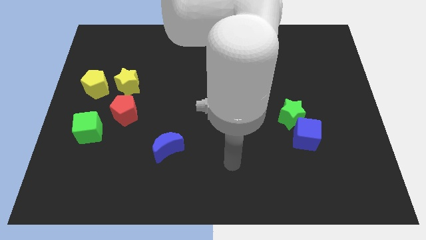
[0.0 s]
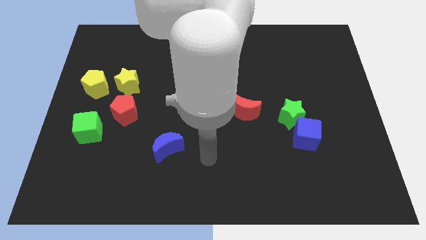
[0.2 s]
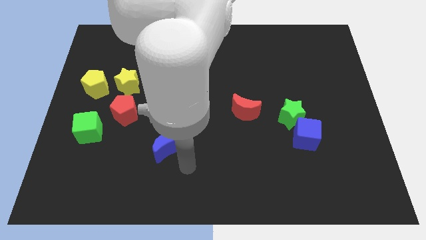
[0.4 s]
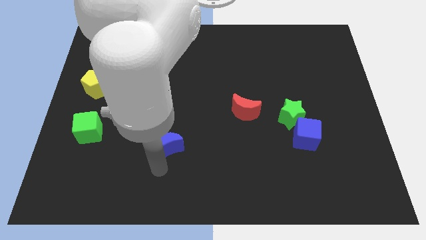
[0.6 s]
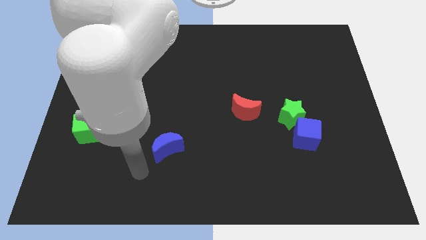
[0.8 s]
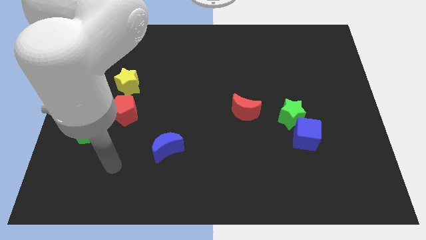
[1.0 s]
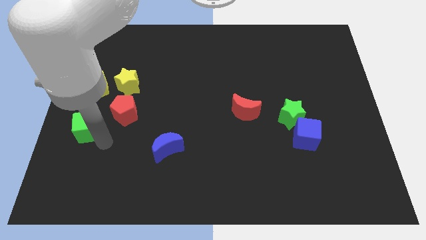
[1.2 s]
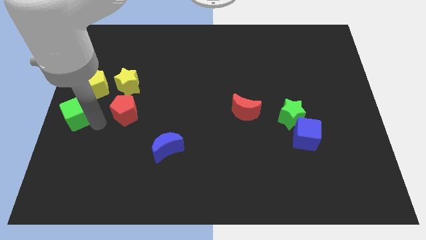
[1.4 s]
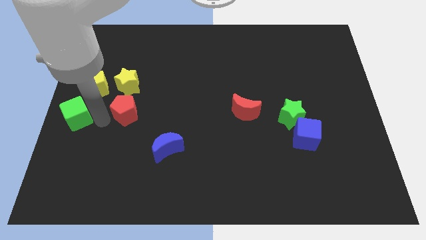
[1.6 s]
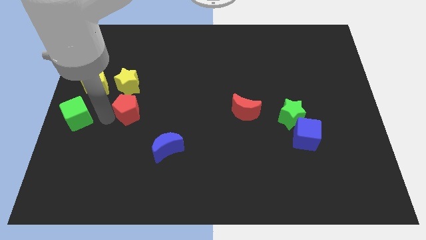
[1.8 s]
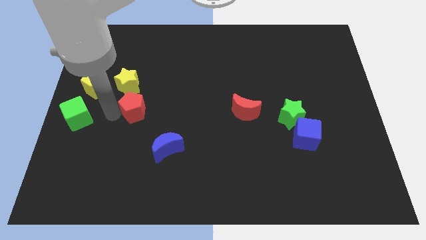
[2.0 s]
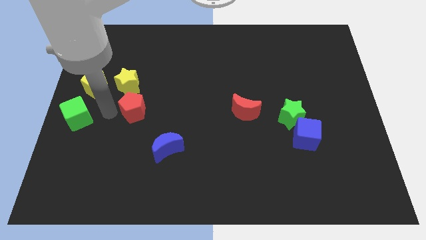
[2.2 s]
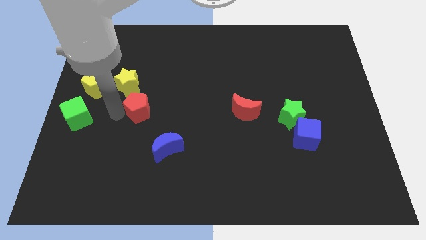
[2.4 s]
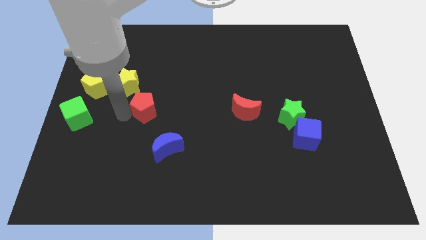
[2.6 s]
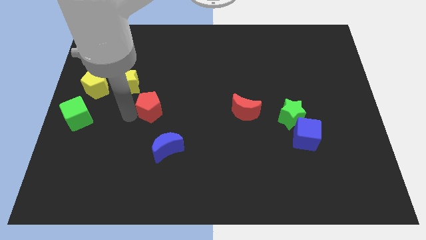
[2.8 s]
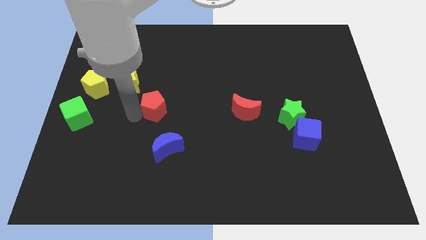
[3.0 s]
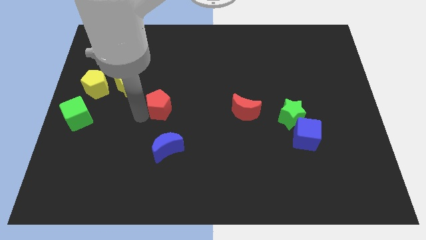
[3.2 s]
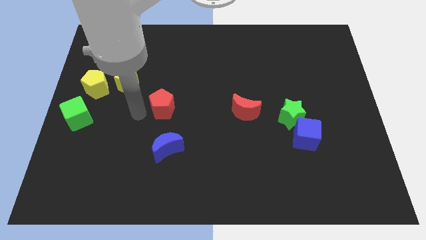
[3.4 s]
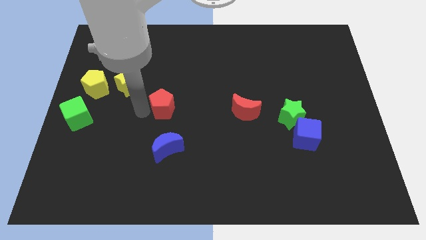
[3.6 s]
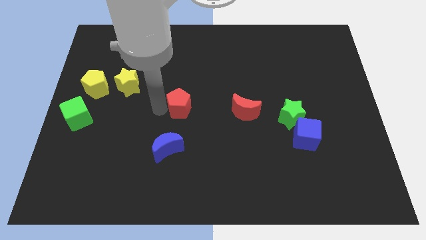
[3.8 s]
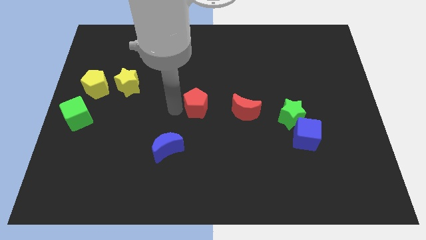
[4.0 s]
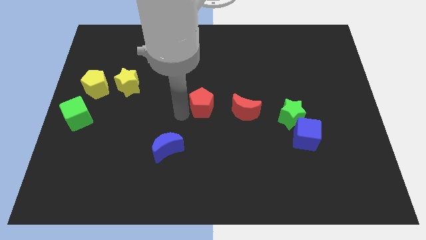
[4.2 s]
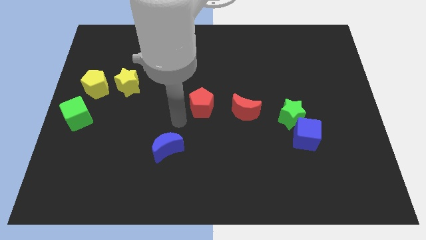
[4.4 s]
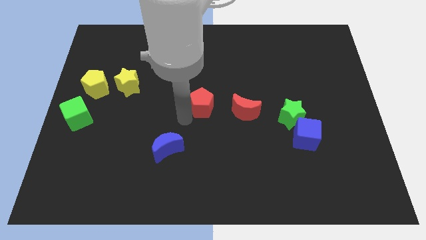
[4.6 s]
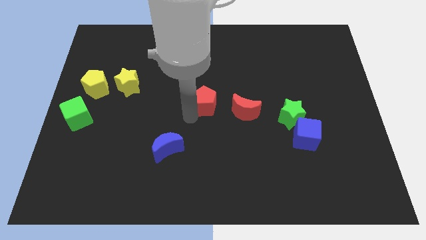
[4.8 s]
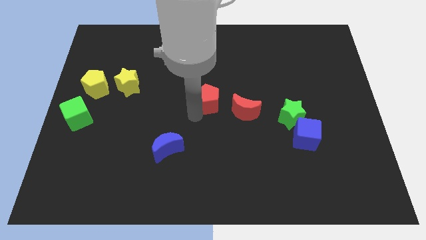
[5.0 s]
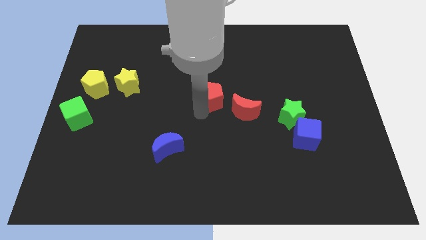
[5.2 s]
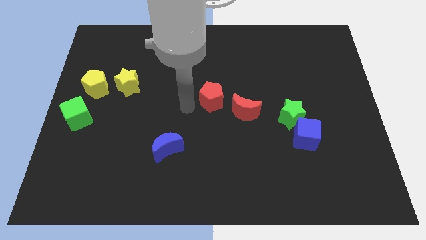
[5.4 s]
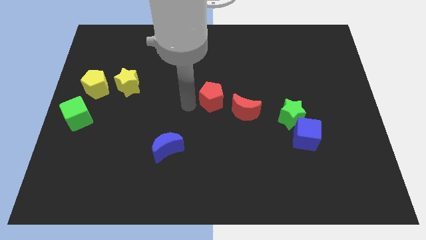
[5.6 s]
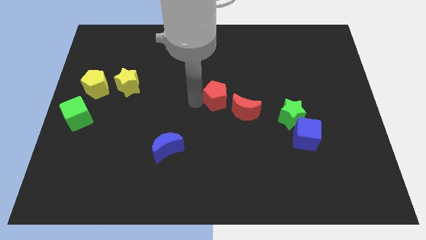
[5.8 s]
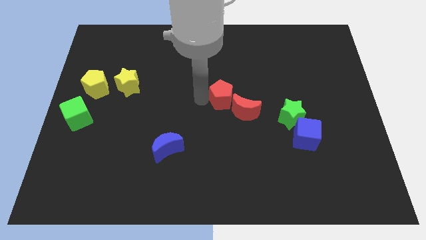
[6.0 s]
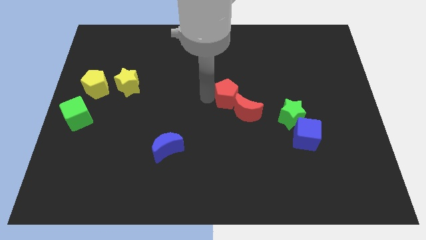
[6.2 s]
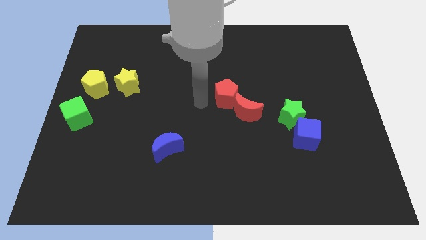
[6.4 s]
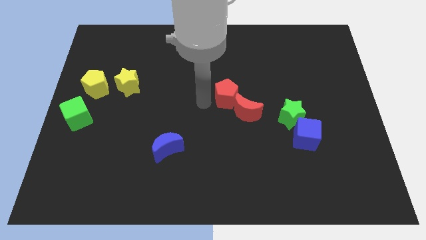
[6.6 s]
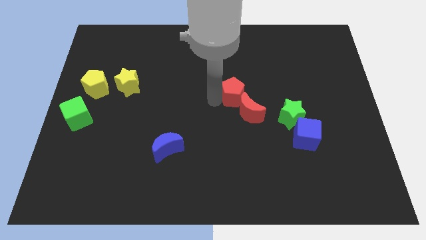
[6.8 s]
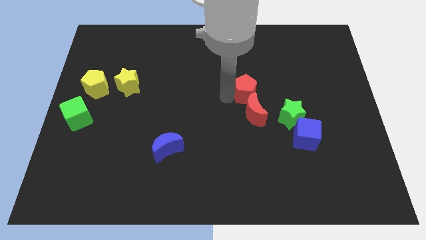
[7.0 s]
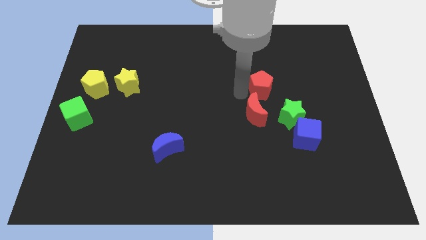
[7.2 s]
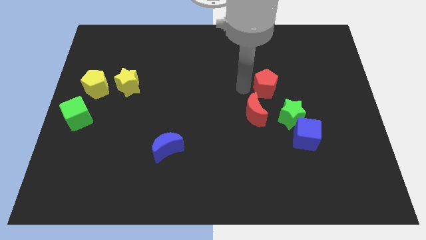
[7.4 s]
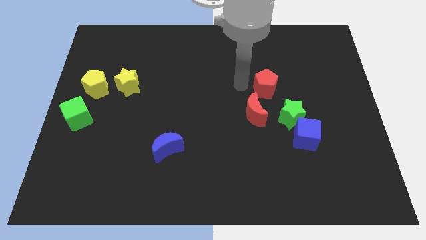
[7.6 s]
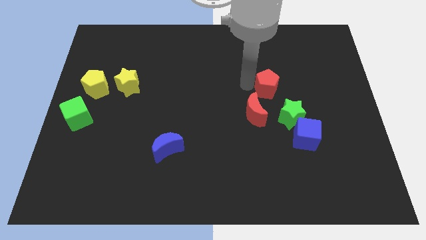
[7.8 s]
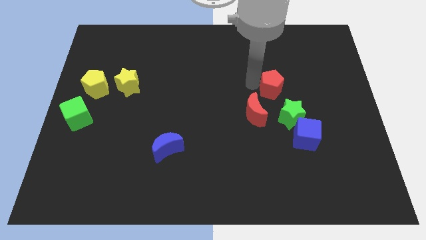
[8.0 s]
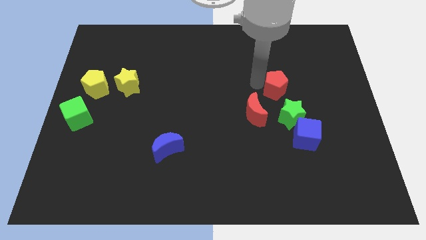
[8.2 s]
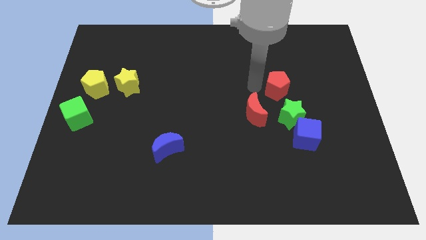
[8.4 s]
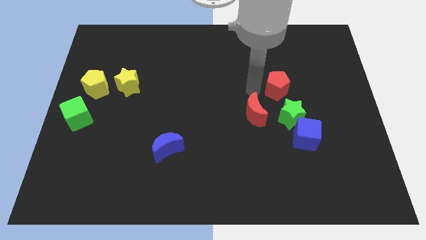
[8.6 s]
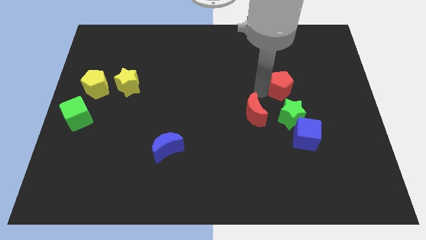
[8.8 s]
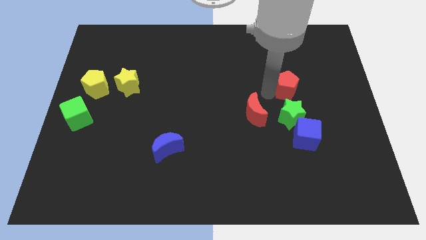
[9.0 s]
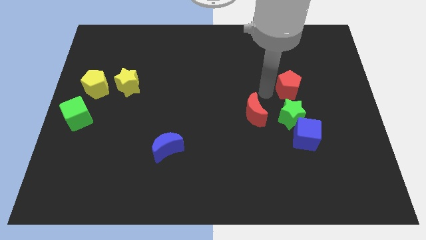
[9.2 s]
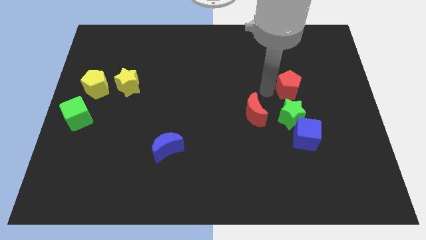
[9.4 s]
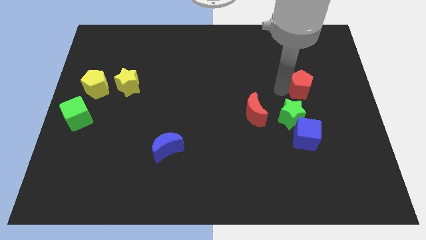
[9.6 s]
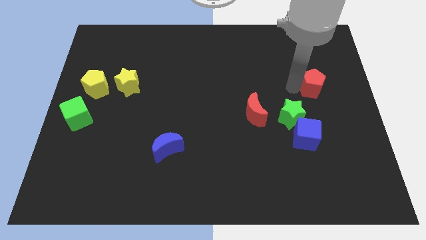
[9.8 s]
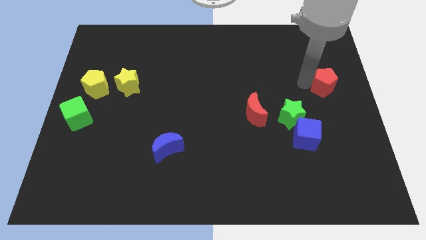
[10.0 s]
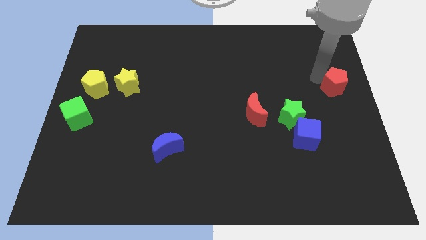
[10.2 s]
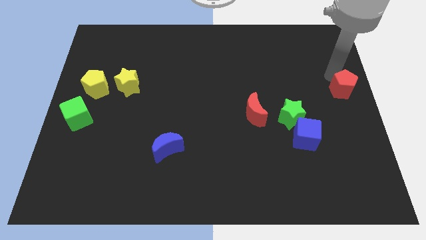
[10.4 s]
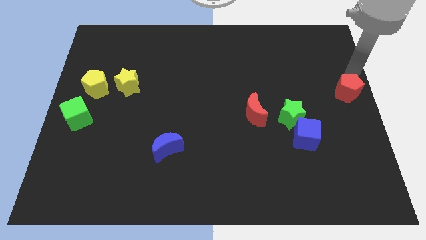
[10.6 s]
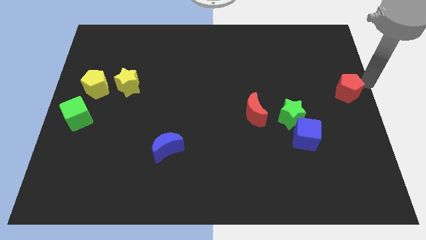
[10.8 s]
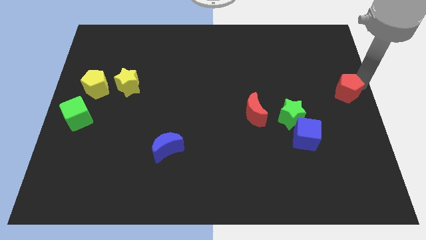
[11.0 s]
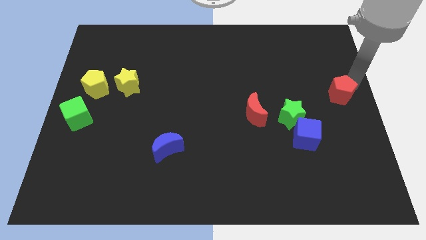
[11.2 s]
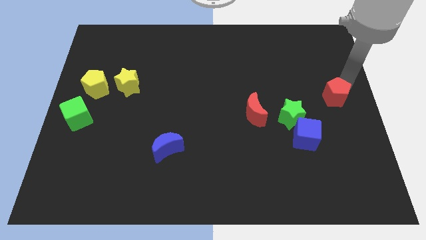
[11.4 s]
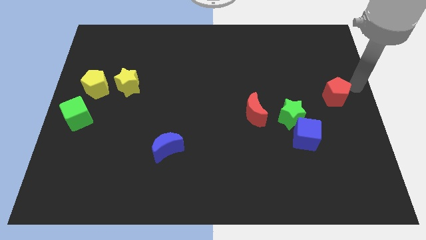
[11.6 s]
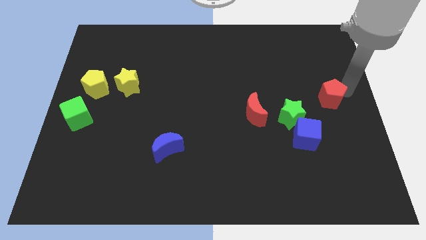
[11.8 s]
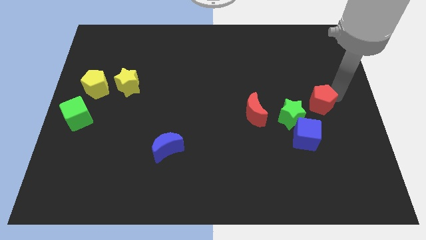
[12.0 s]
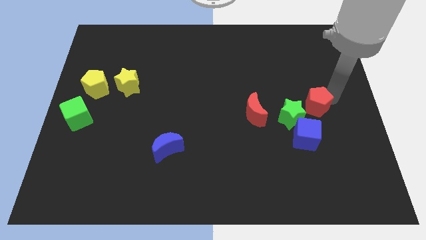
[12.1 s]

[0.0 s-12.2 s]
move the red pentagon just right of the red moon

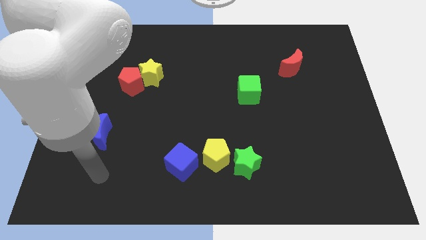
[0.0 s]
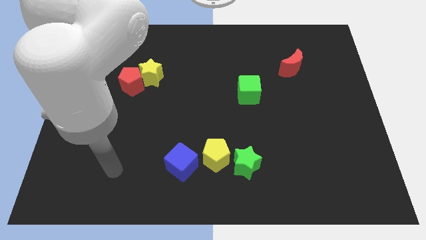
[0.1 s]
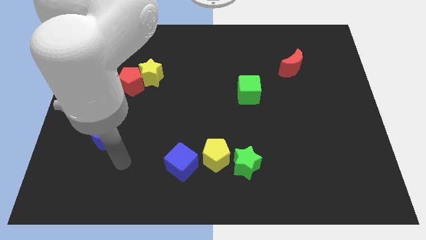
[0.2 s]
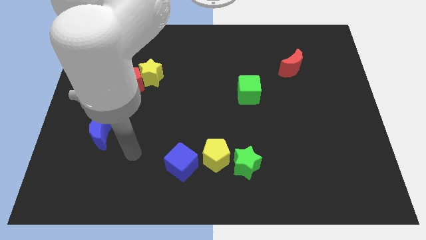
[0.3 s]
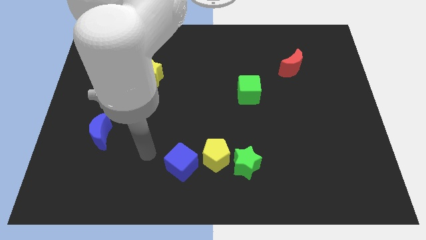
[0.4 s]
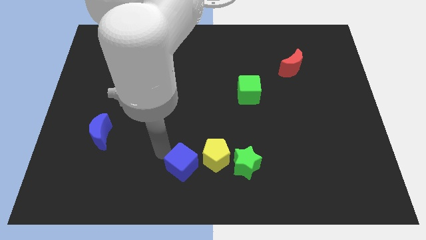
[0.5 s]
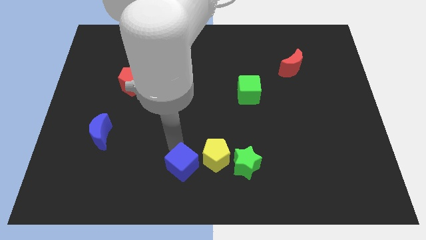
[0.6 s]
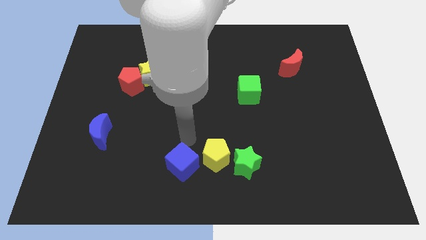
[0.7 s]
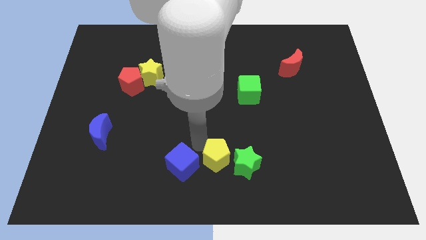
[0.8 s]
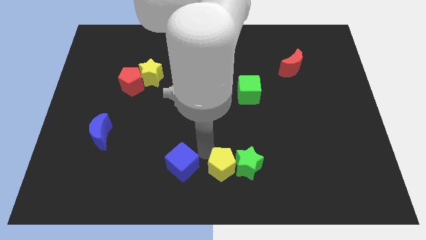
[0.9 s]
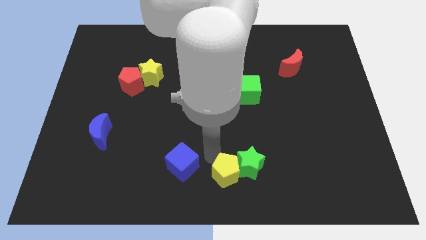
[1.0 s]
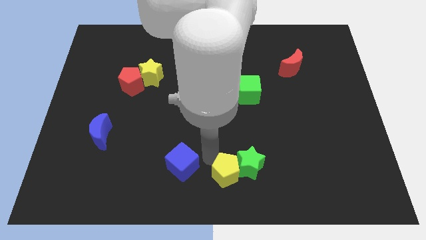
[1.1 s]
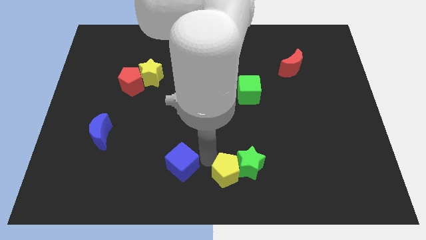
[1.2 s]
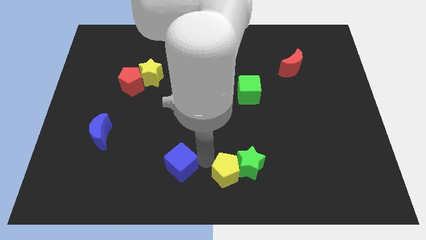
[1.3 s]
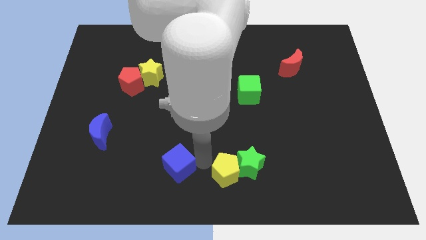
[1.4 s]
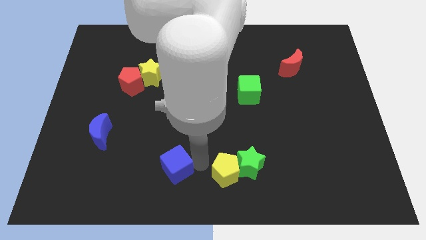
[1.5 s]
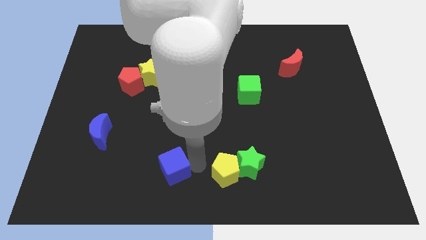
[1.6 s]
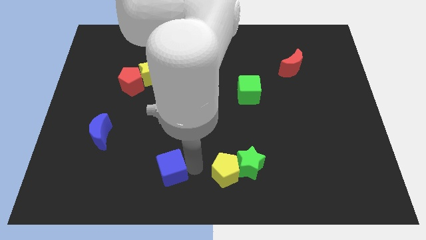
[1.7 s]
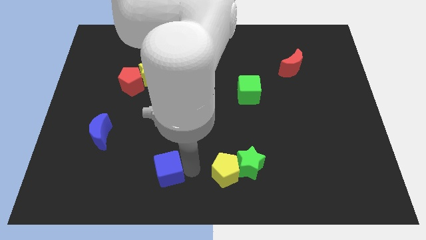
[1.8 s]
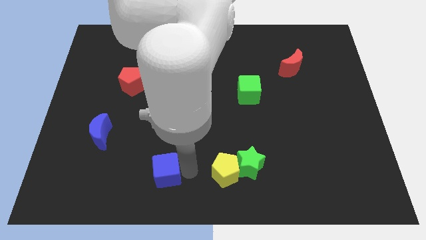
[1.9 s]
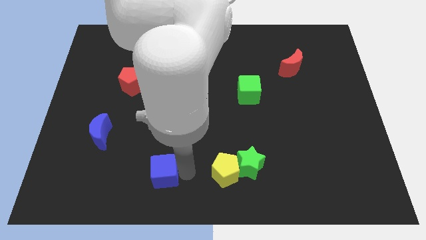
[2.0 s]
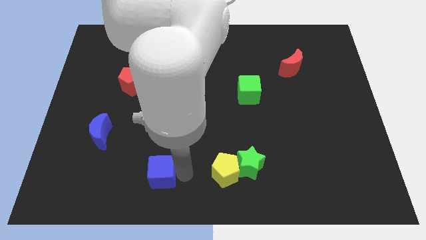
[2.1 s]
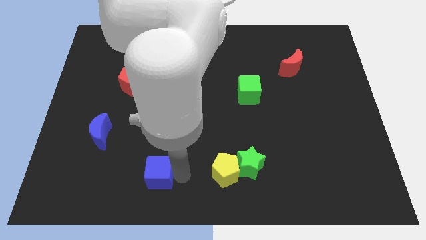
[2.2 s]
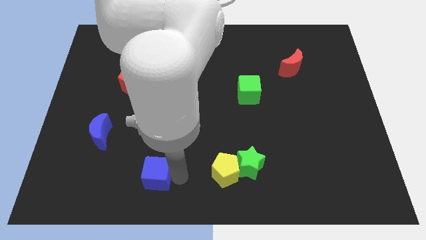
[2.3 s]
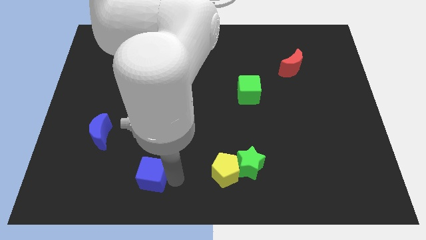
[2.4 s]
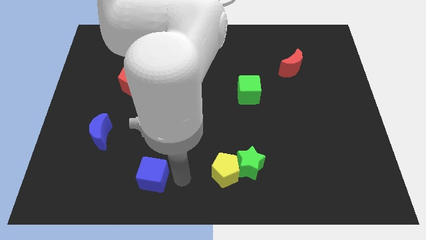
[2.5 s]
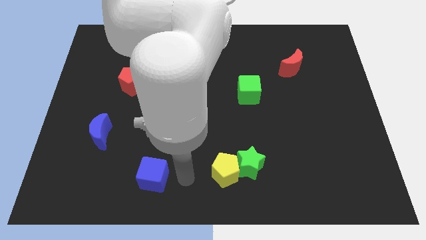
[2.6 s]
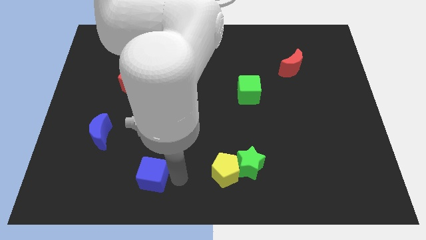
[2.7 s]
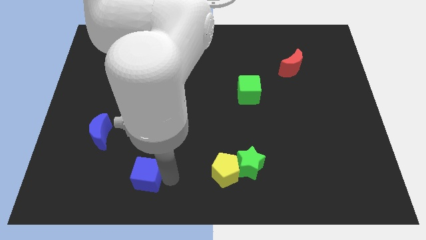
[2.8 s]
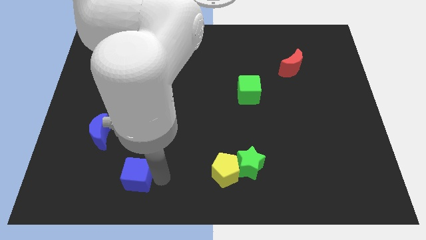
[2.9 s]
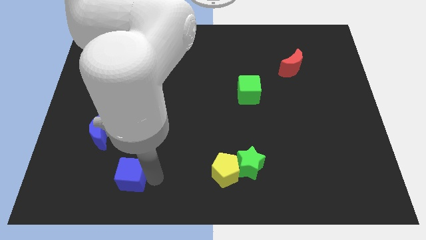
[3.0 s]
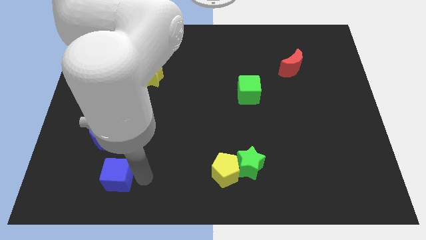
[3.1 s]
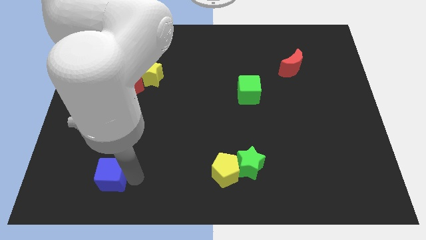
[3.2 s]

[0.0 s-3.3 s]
put the blue cube to the bottom of the blue moon
